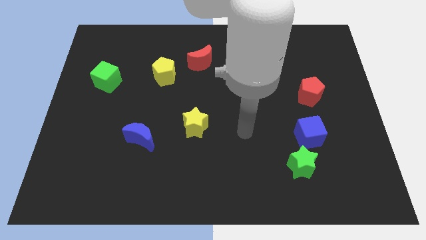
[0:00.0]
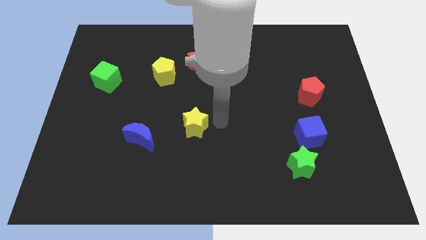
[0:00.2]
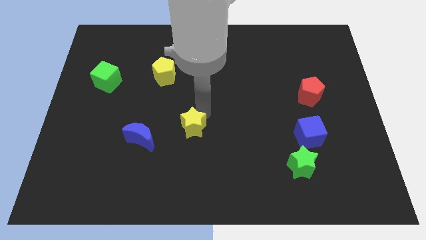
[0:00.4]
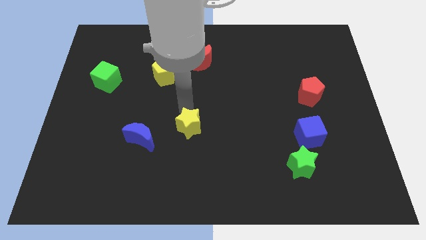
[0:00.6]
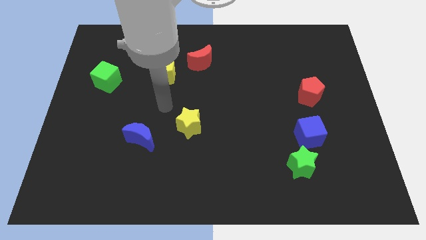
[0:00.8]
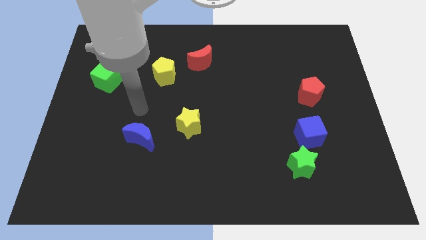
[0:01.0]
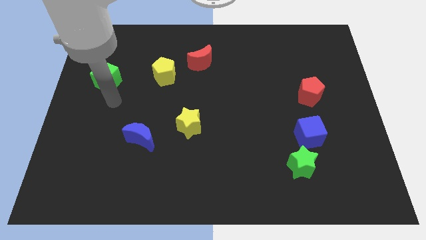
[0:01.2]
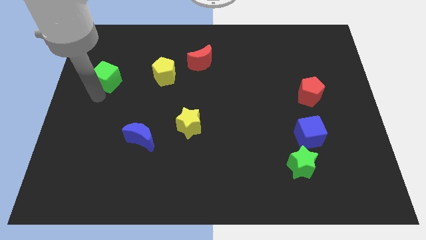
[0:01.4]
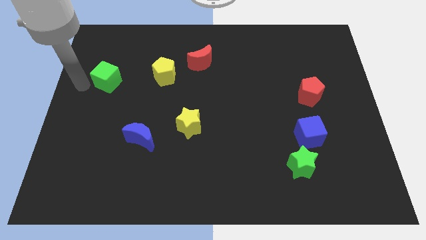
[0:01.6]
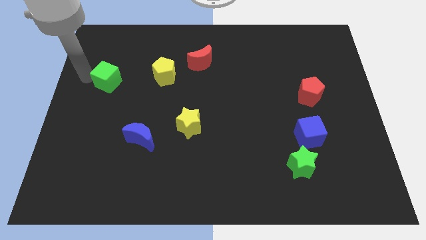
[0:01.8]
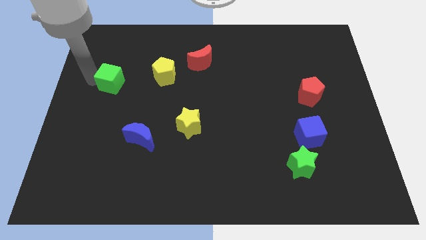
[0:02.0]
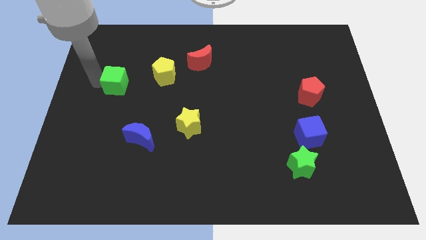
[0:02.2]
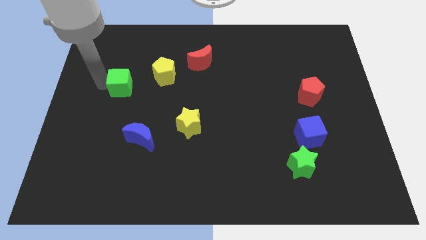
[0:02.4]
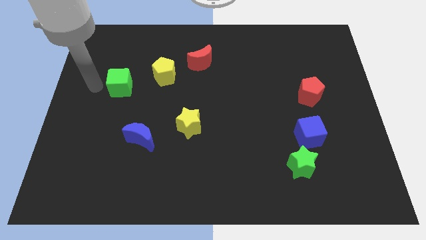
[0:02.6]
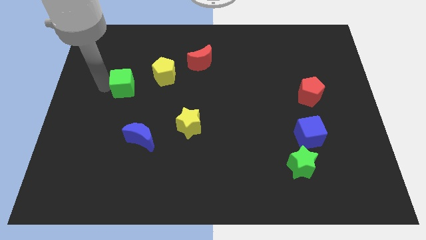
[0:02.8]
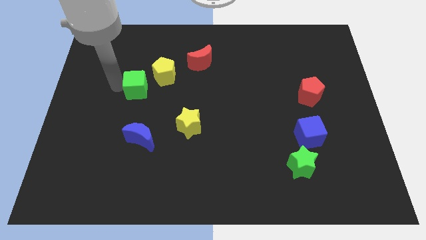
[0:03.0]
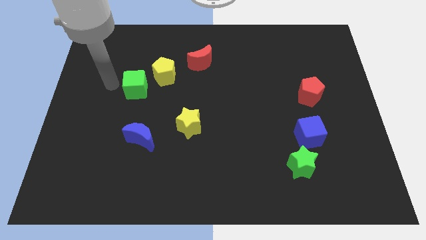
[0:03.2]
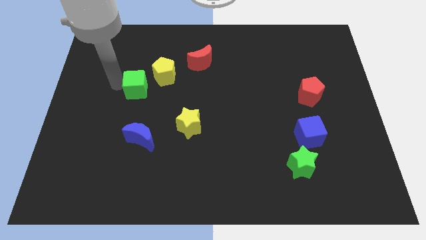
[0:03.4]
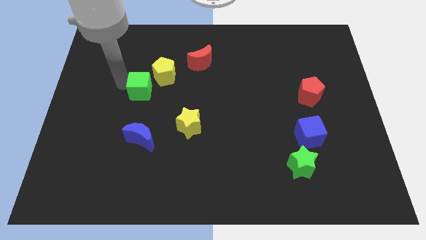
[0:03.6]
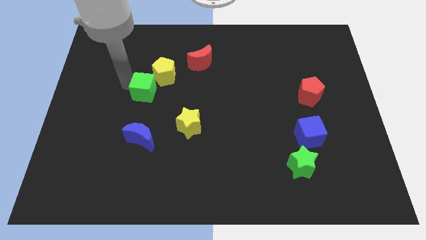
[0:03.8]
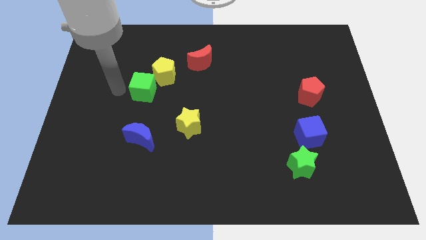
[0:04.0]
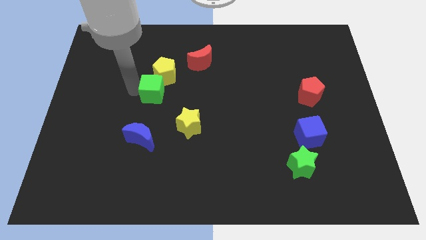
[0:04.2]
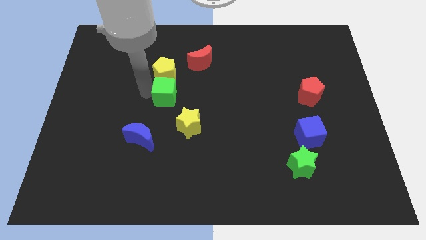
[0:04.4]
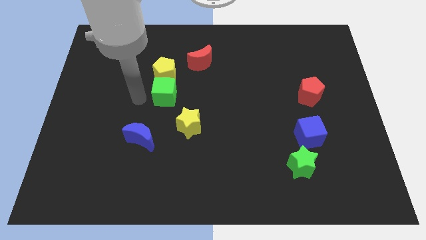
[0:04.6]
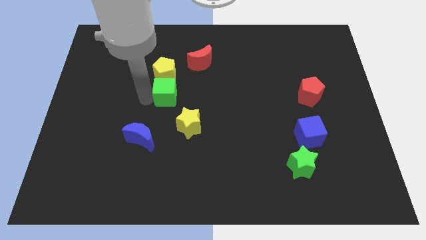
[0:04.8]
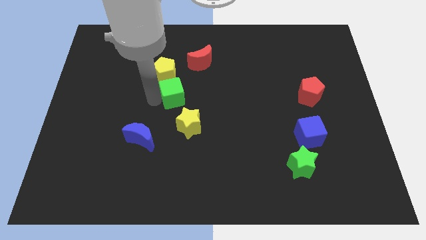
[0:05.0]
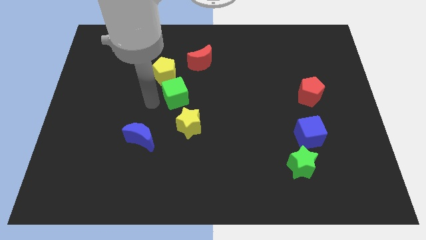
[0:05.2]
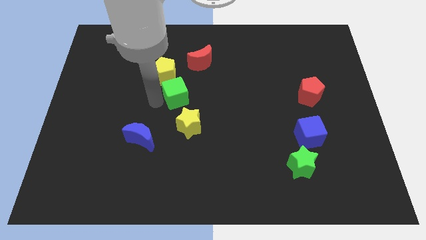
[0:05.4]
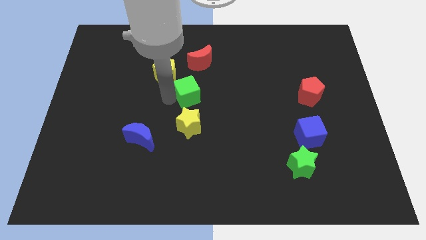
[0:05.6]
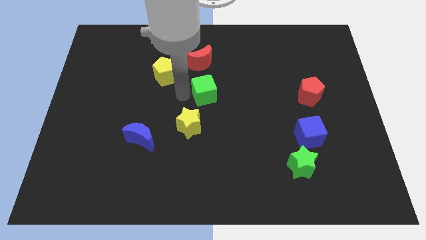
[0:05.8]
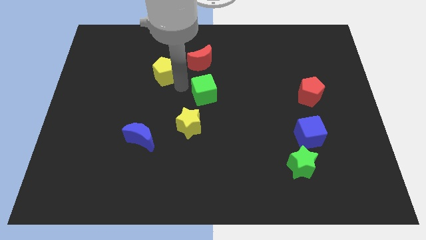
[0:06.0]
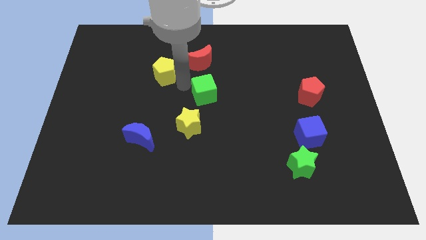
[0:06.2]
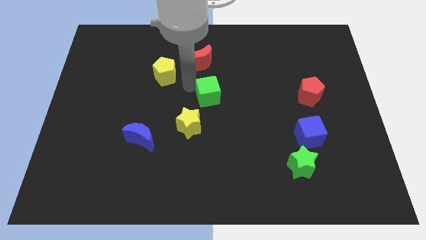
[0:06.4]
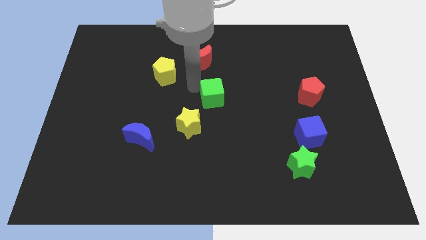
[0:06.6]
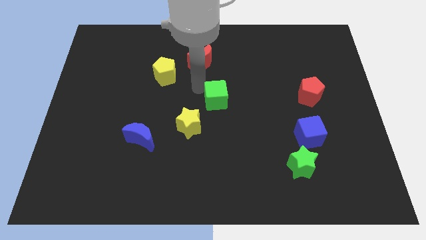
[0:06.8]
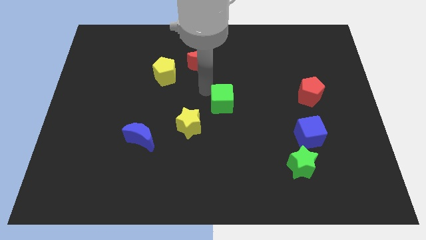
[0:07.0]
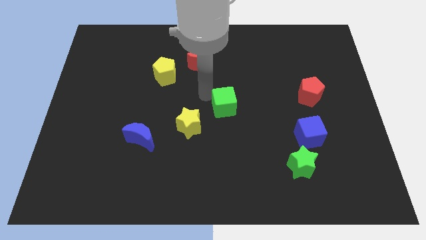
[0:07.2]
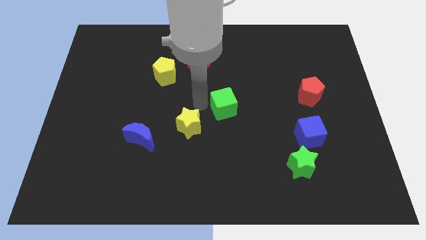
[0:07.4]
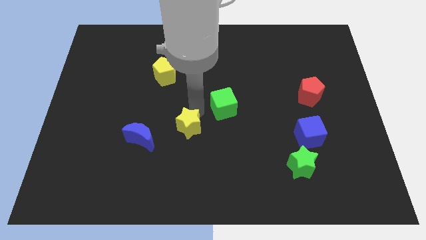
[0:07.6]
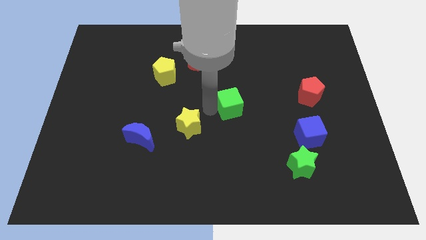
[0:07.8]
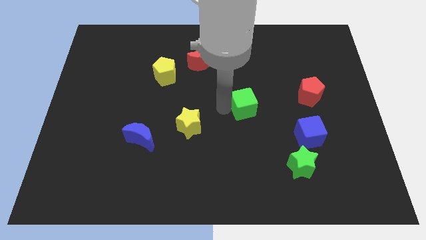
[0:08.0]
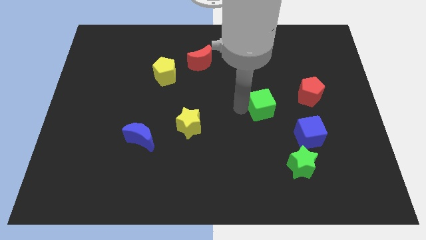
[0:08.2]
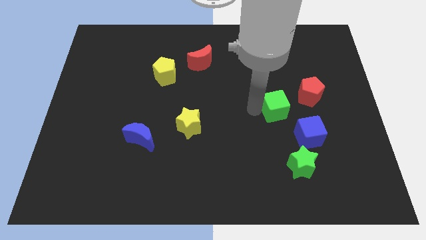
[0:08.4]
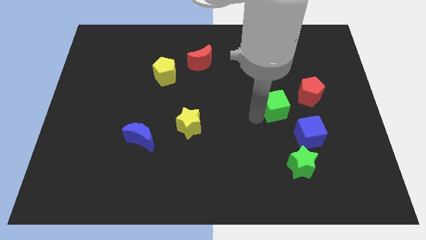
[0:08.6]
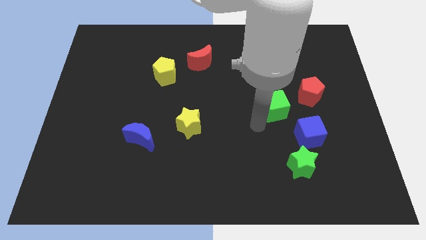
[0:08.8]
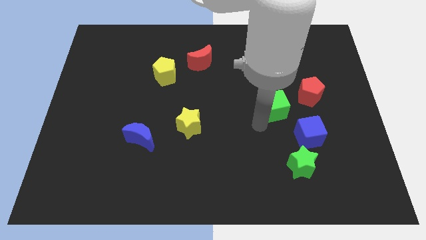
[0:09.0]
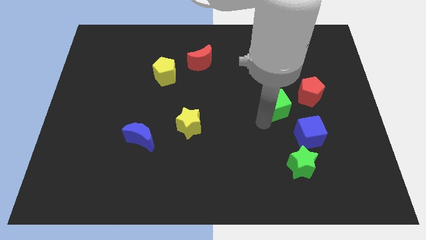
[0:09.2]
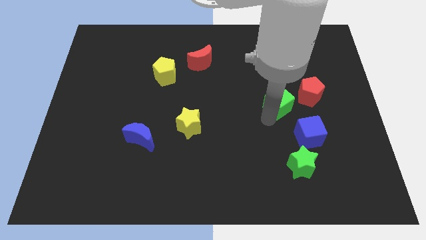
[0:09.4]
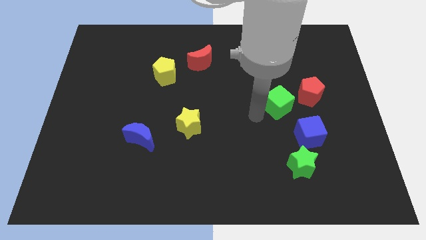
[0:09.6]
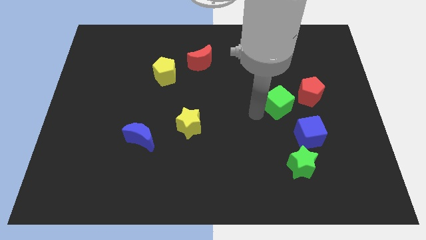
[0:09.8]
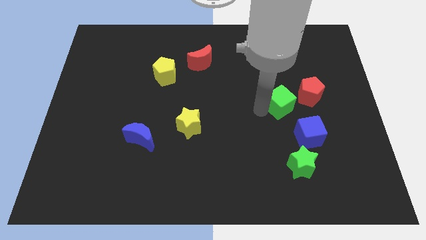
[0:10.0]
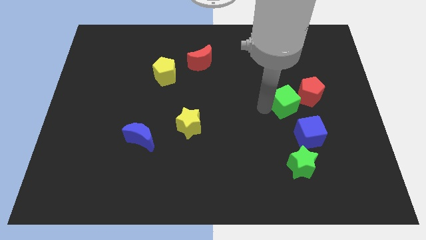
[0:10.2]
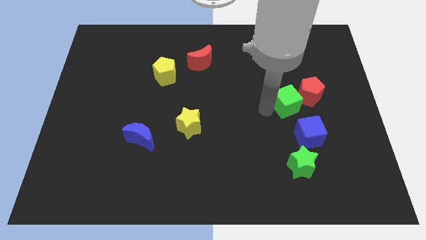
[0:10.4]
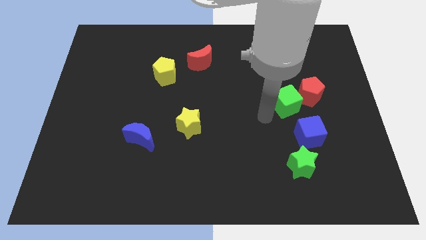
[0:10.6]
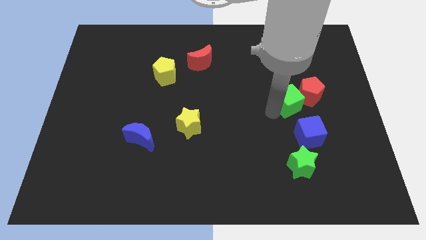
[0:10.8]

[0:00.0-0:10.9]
slide the green cube next to the red pentagon

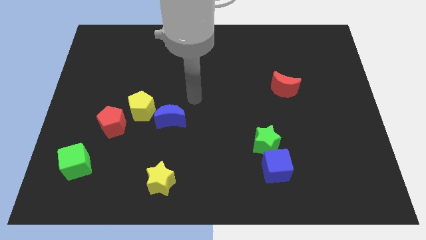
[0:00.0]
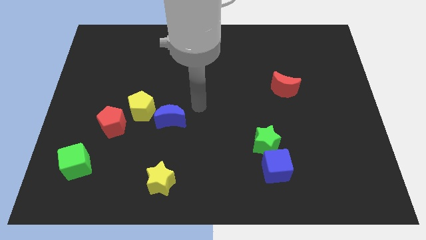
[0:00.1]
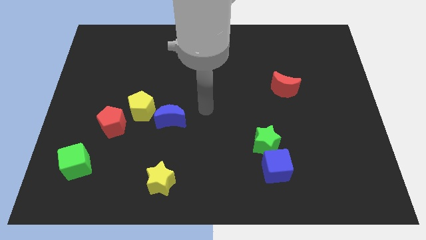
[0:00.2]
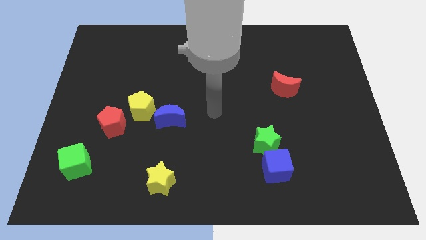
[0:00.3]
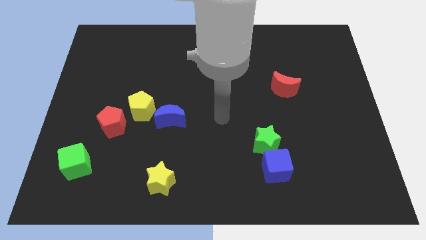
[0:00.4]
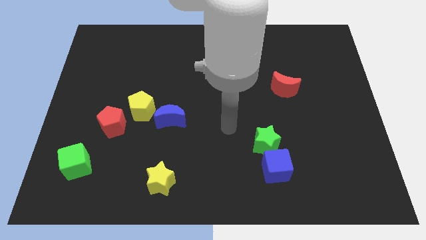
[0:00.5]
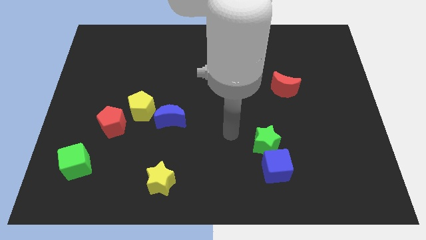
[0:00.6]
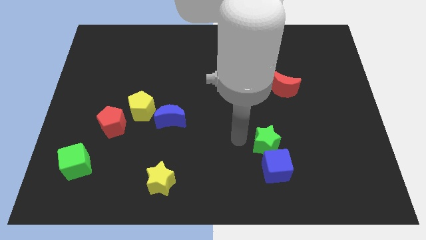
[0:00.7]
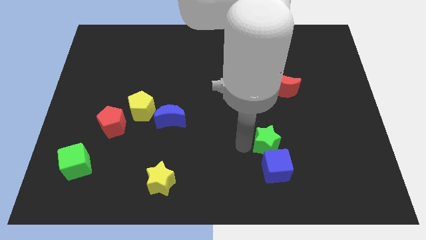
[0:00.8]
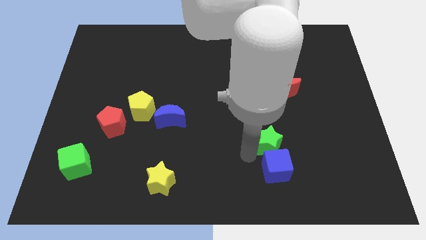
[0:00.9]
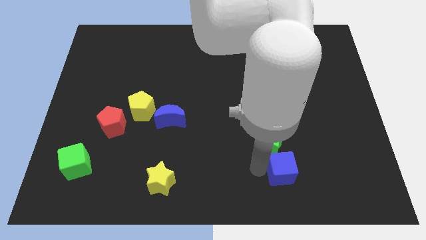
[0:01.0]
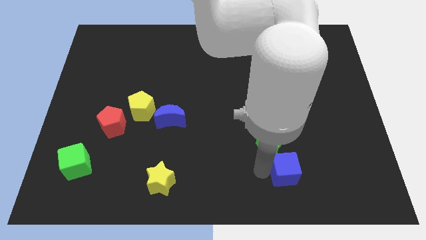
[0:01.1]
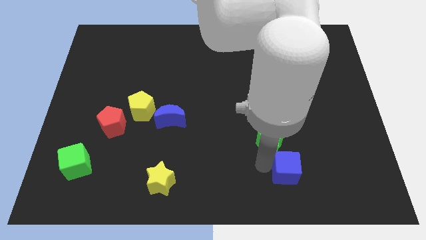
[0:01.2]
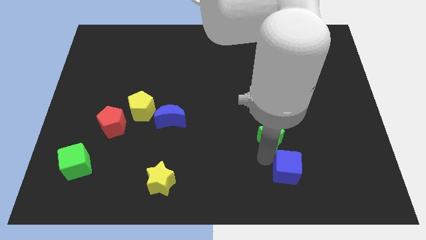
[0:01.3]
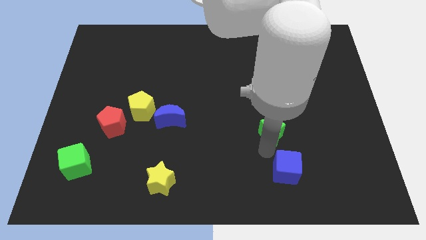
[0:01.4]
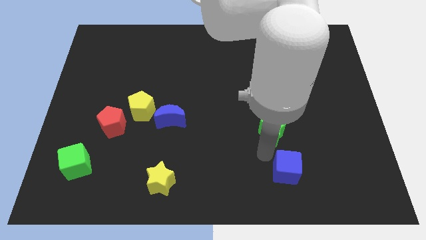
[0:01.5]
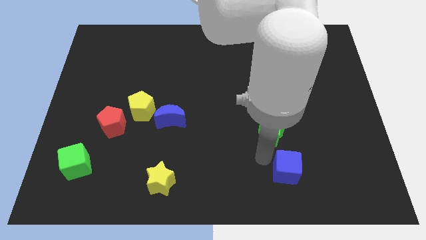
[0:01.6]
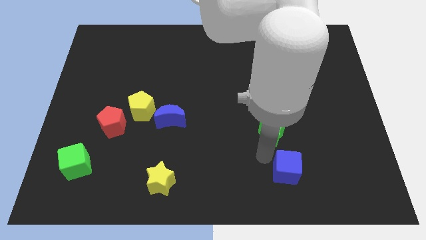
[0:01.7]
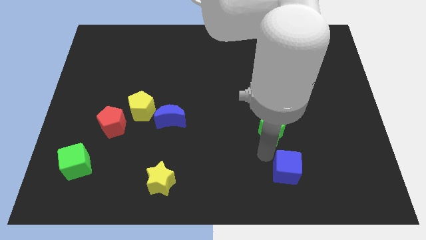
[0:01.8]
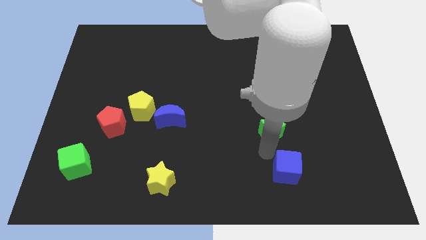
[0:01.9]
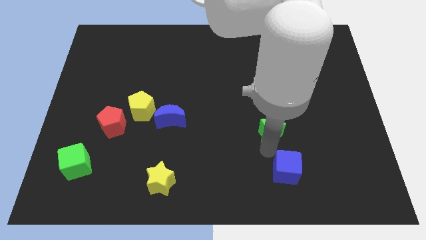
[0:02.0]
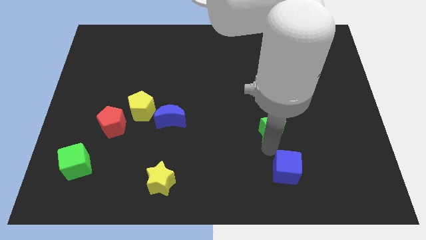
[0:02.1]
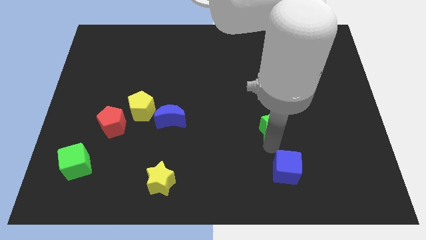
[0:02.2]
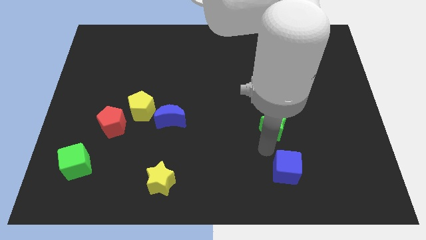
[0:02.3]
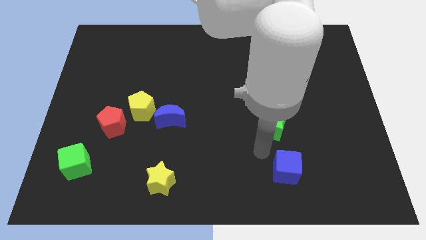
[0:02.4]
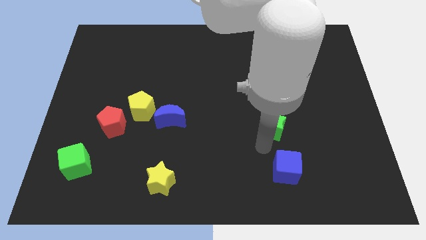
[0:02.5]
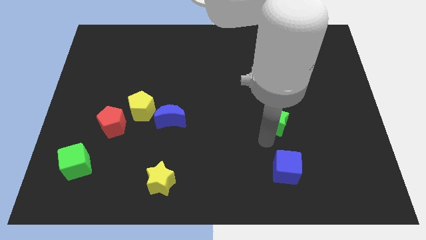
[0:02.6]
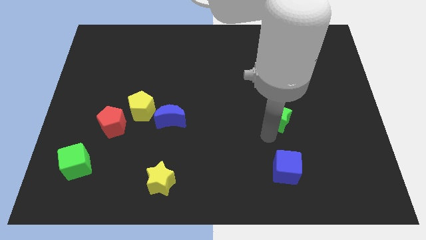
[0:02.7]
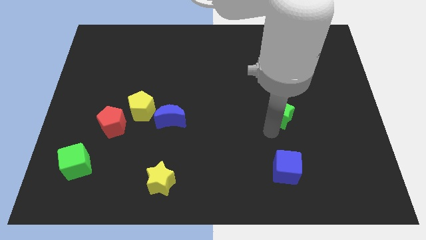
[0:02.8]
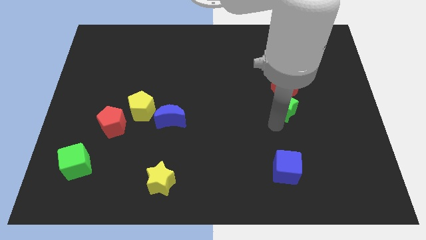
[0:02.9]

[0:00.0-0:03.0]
push the green star close to the red moon
